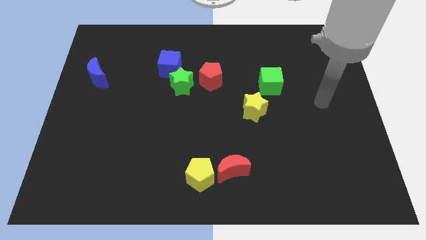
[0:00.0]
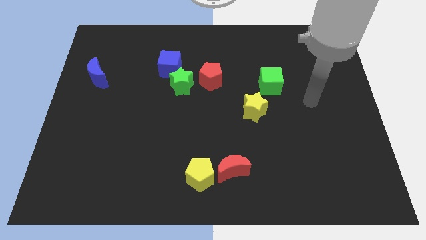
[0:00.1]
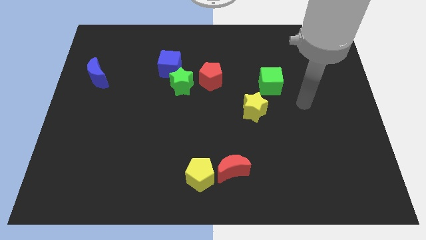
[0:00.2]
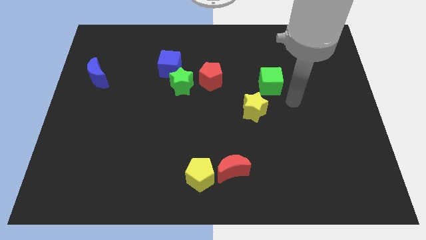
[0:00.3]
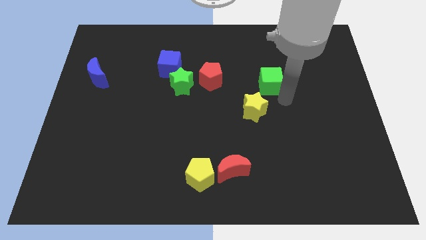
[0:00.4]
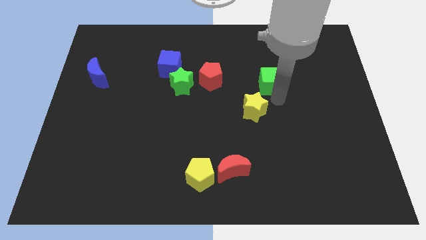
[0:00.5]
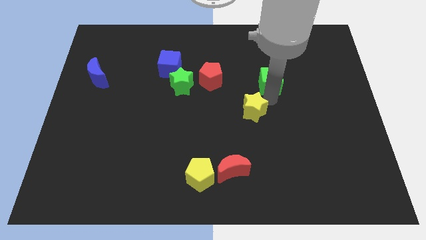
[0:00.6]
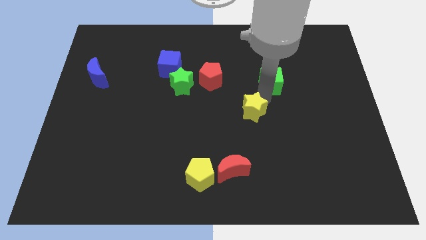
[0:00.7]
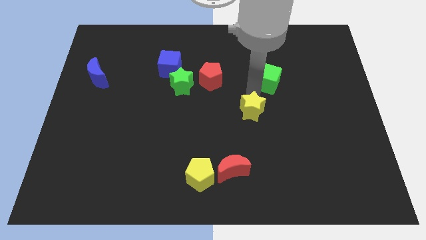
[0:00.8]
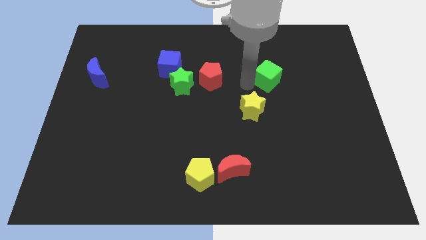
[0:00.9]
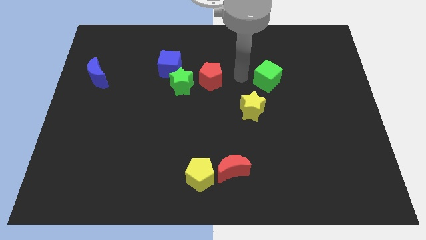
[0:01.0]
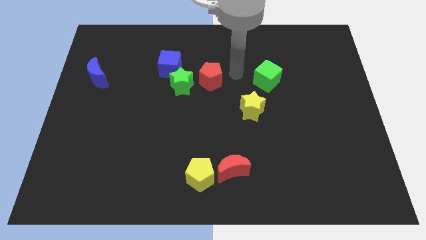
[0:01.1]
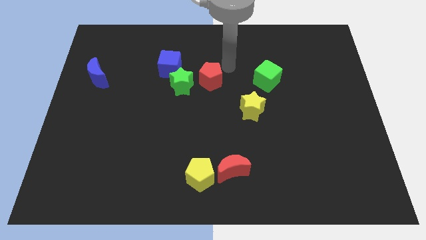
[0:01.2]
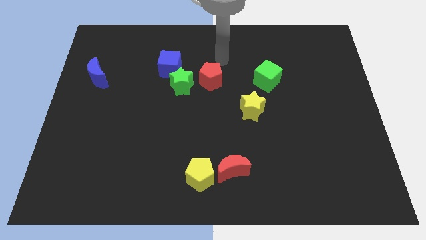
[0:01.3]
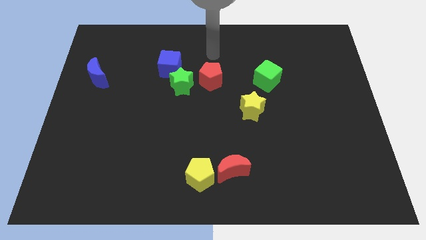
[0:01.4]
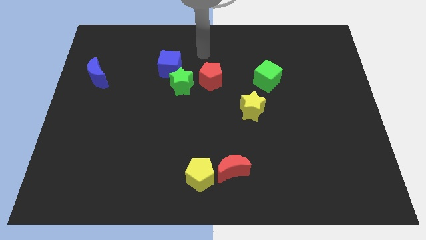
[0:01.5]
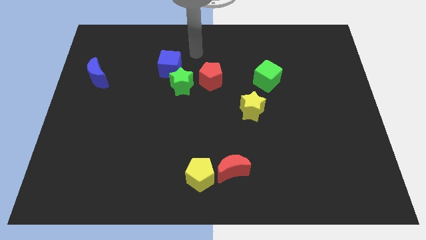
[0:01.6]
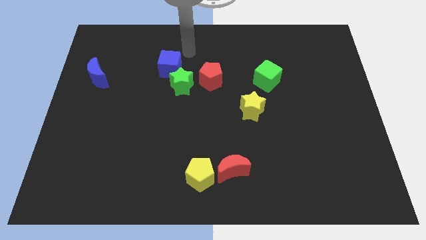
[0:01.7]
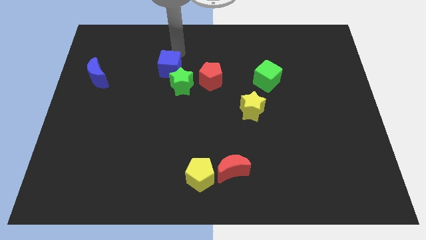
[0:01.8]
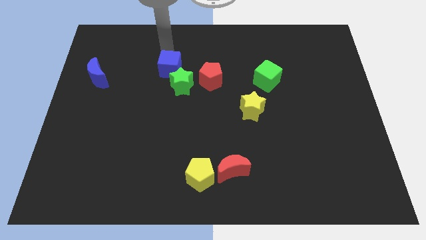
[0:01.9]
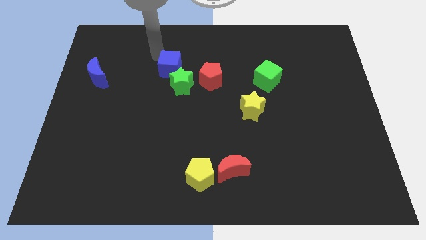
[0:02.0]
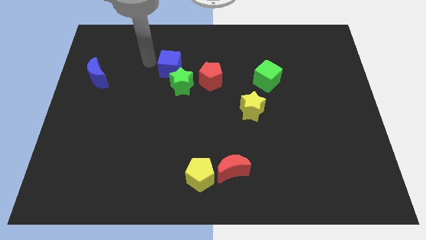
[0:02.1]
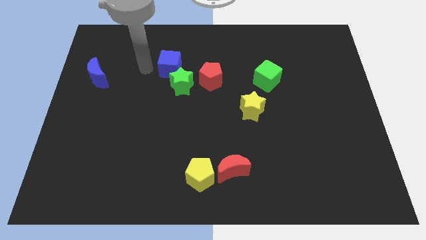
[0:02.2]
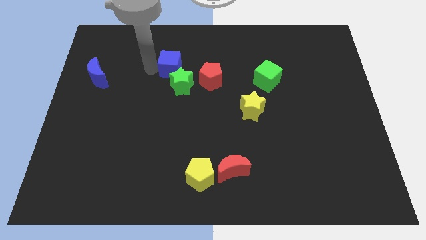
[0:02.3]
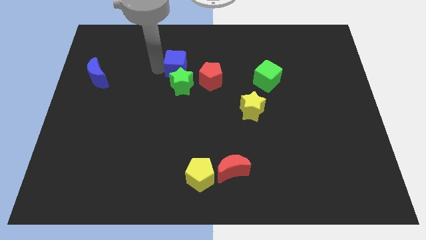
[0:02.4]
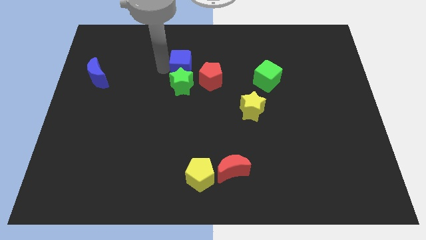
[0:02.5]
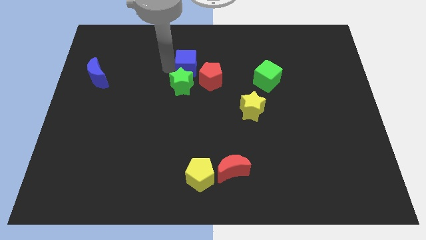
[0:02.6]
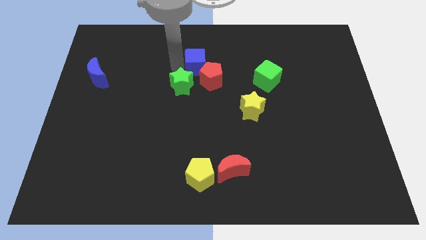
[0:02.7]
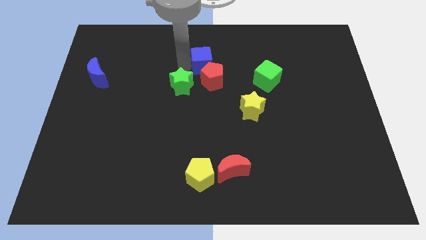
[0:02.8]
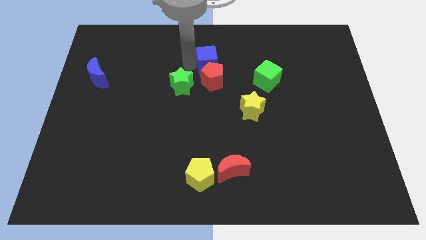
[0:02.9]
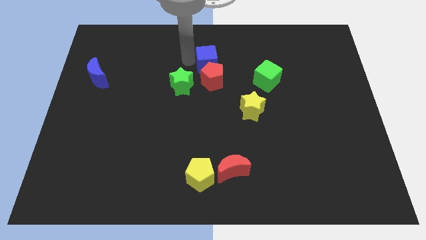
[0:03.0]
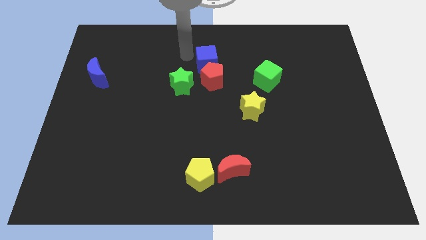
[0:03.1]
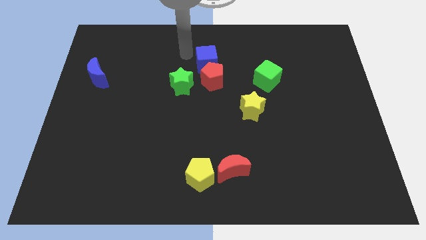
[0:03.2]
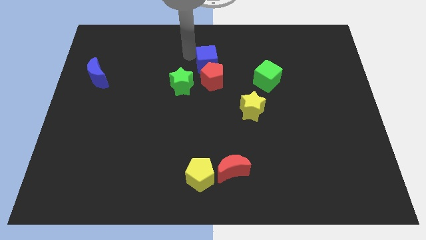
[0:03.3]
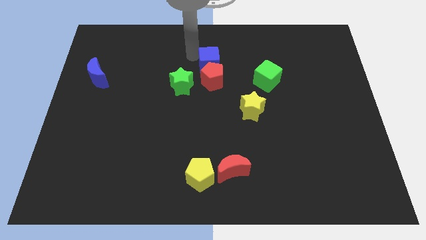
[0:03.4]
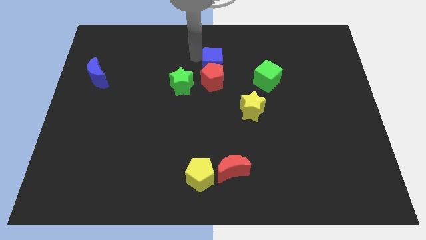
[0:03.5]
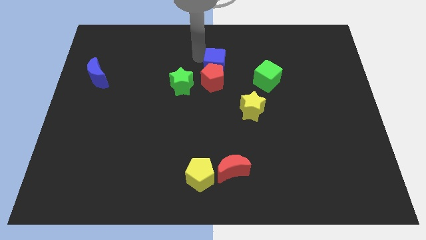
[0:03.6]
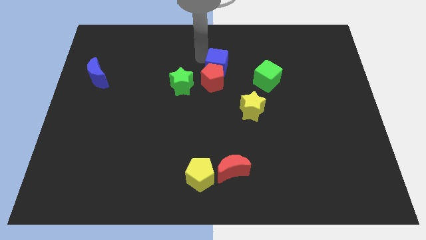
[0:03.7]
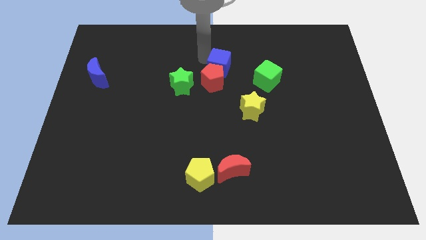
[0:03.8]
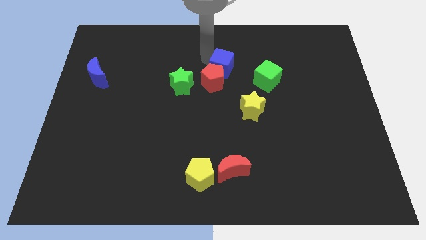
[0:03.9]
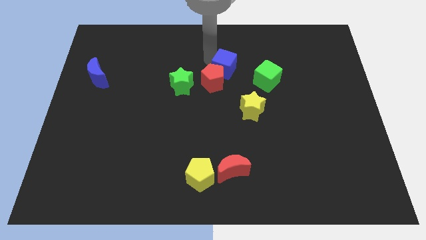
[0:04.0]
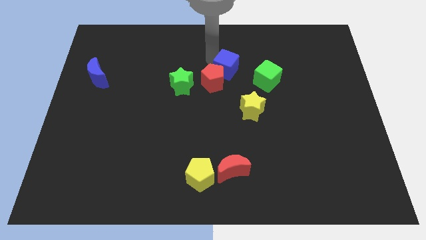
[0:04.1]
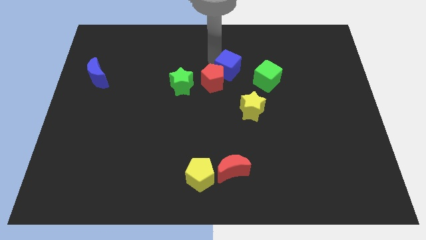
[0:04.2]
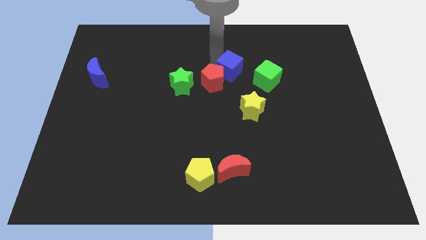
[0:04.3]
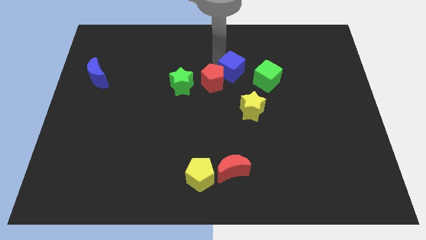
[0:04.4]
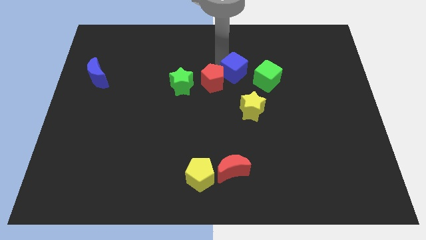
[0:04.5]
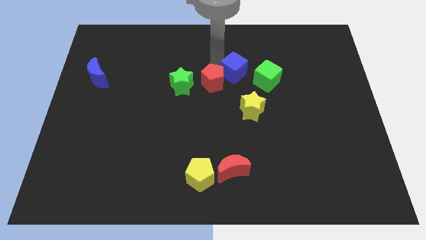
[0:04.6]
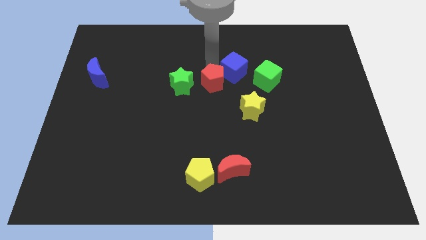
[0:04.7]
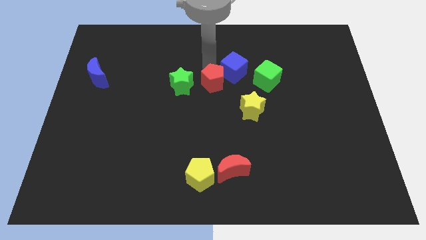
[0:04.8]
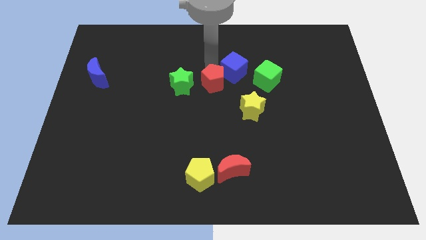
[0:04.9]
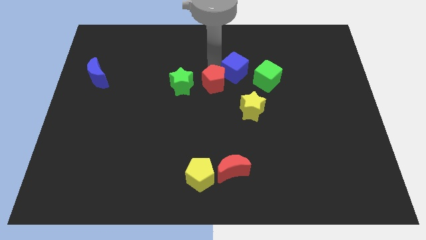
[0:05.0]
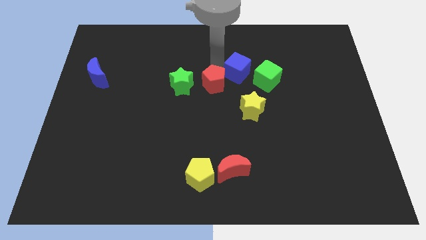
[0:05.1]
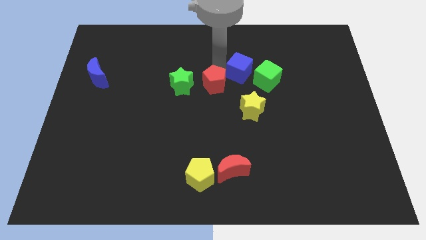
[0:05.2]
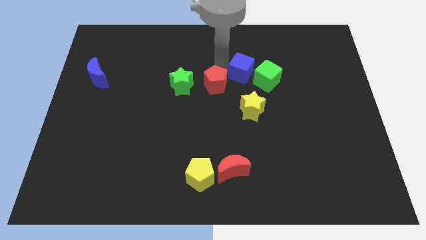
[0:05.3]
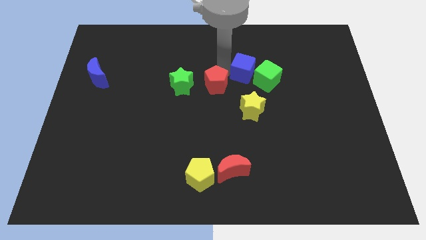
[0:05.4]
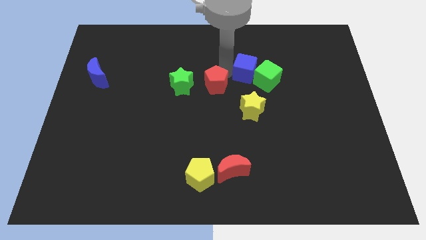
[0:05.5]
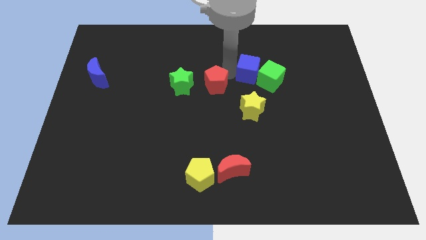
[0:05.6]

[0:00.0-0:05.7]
push the blue cube to the right

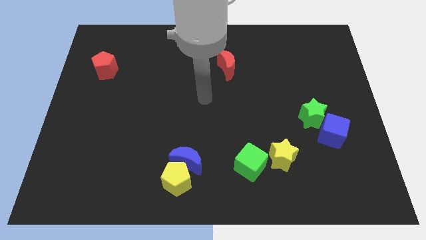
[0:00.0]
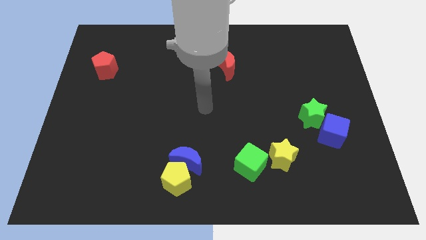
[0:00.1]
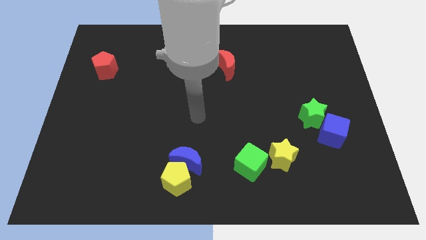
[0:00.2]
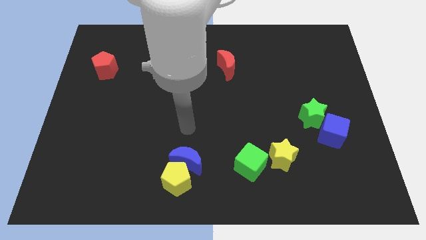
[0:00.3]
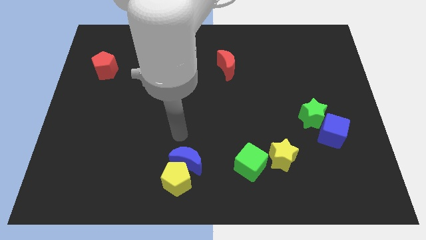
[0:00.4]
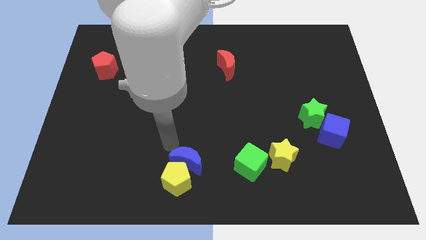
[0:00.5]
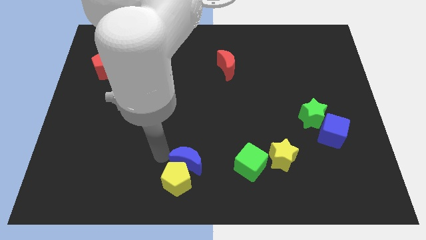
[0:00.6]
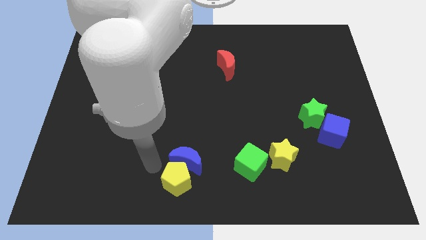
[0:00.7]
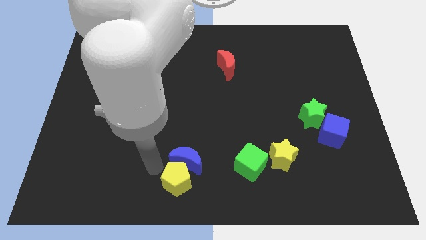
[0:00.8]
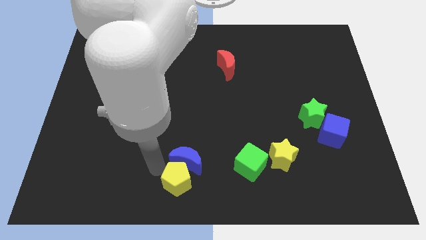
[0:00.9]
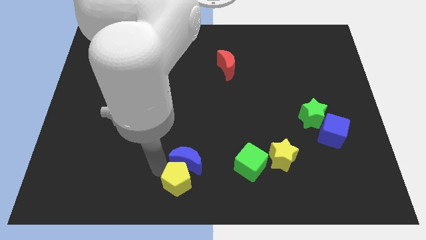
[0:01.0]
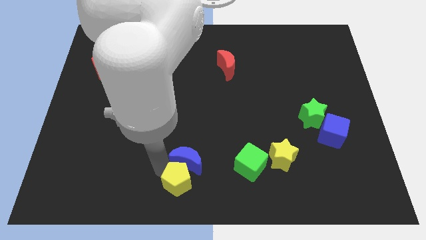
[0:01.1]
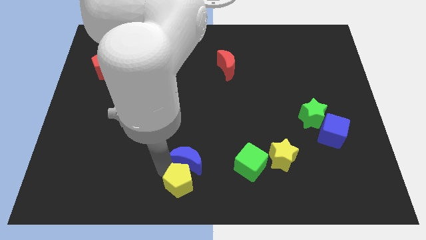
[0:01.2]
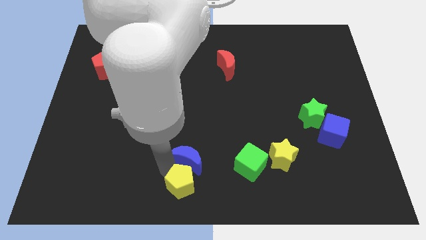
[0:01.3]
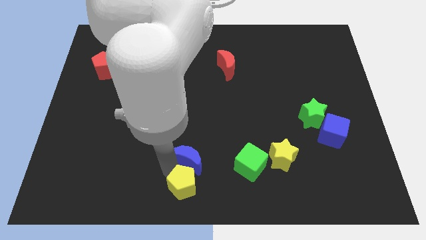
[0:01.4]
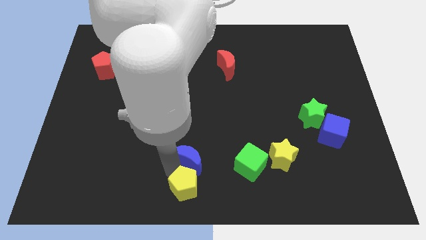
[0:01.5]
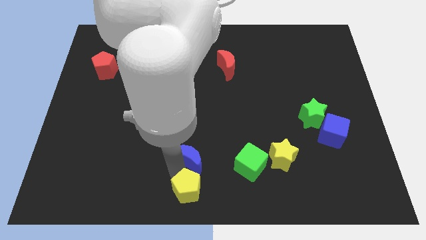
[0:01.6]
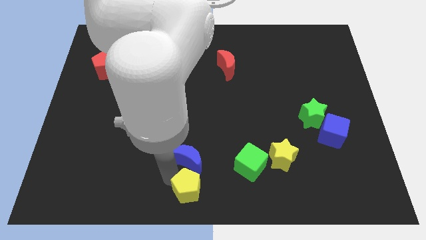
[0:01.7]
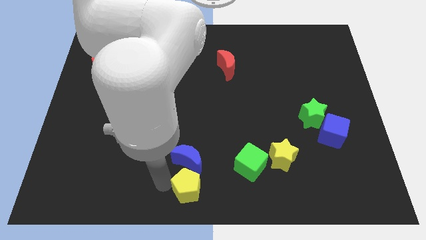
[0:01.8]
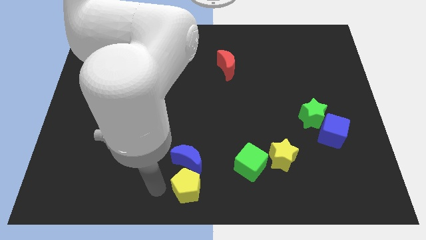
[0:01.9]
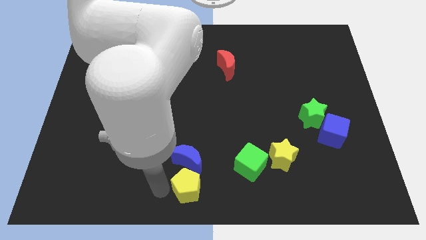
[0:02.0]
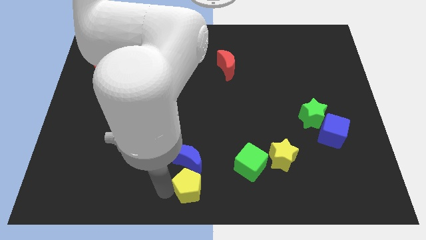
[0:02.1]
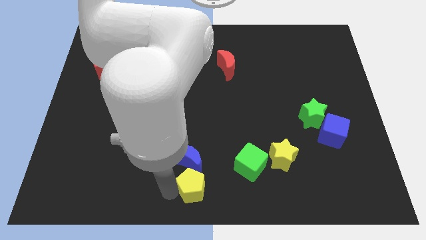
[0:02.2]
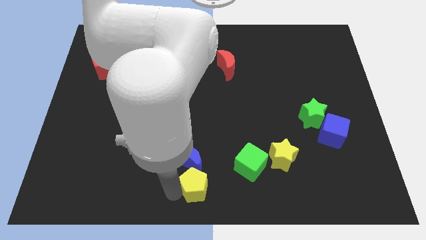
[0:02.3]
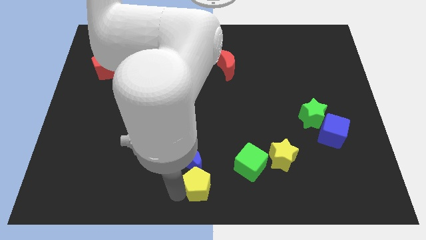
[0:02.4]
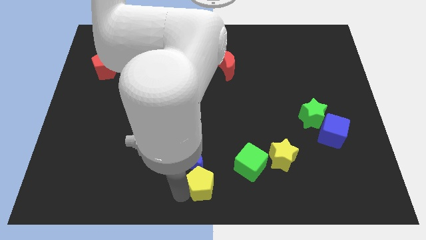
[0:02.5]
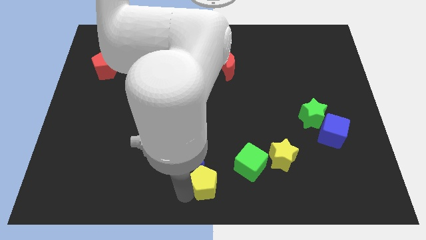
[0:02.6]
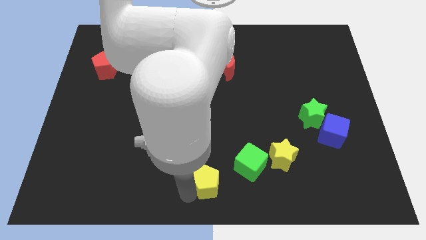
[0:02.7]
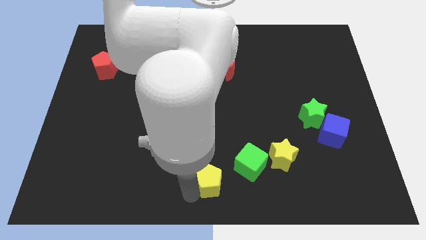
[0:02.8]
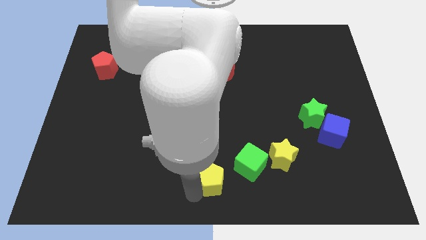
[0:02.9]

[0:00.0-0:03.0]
push the yellow pentagon right somewhat

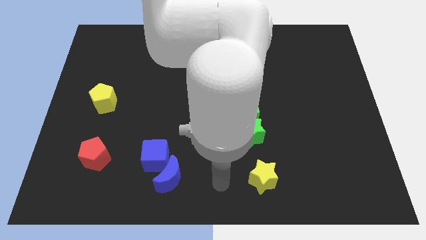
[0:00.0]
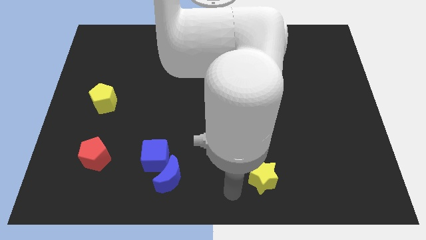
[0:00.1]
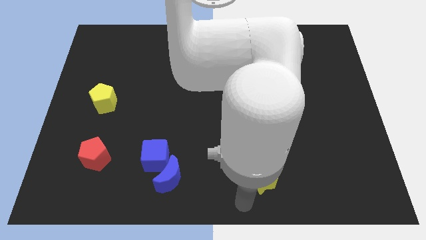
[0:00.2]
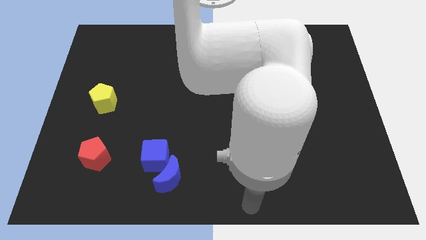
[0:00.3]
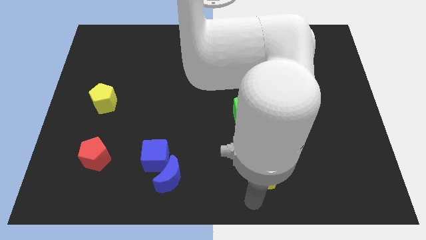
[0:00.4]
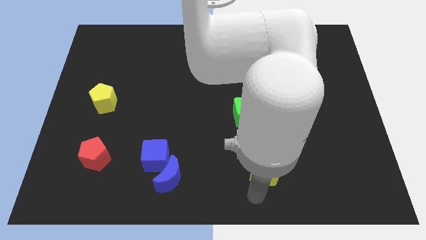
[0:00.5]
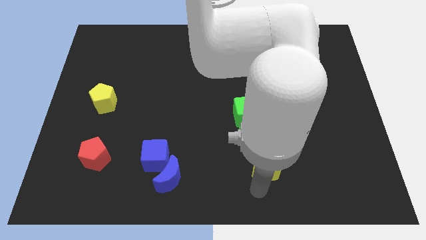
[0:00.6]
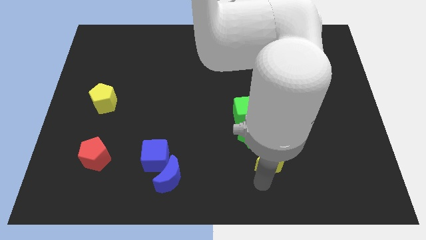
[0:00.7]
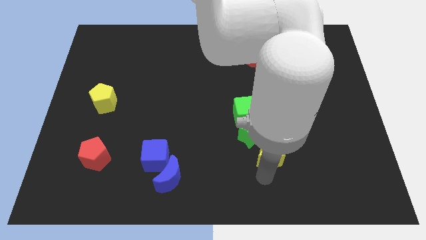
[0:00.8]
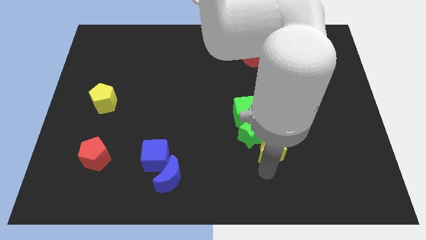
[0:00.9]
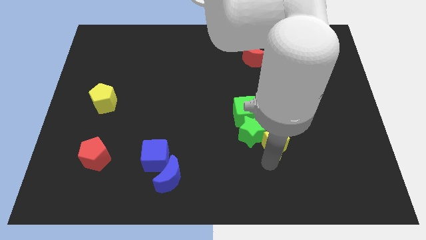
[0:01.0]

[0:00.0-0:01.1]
push the yellow star upwards a little
